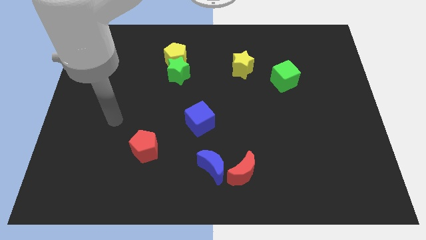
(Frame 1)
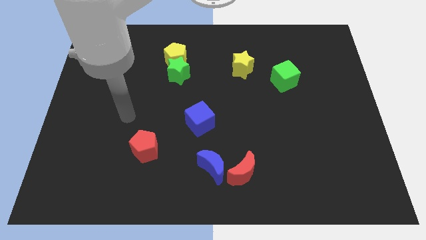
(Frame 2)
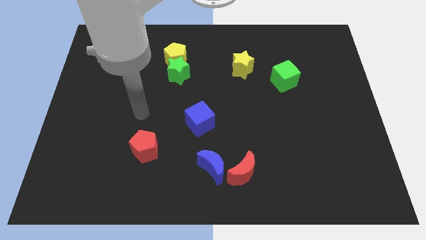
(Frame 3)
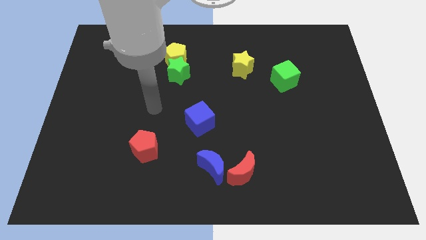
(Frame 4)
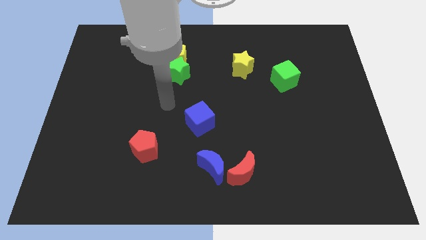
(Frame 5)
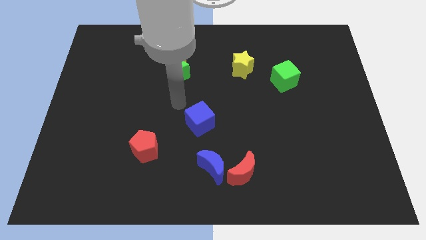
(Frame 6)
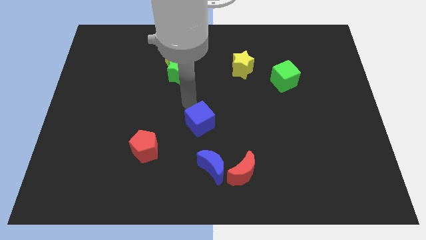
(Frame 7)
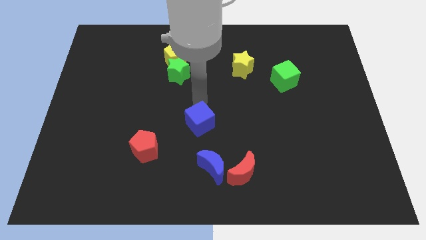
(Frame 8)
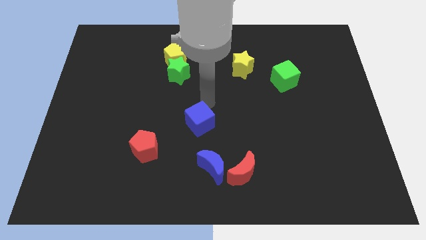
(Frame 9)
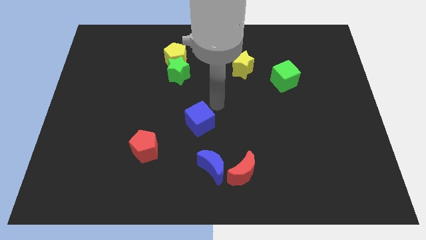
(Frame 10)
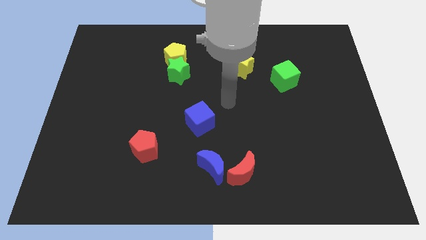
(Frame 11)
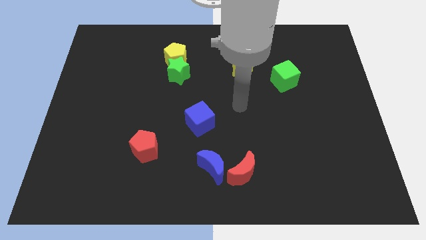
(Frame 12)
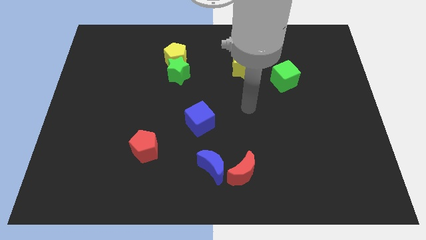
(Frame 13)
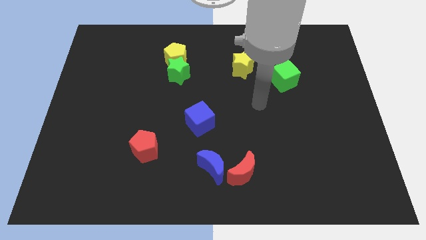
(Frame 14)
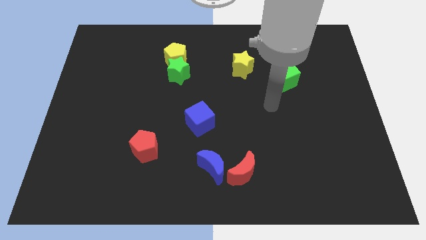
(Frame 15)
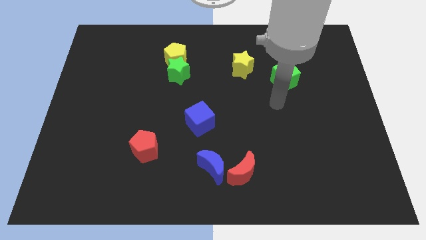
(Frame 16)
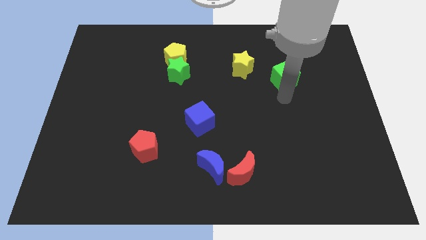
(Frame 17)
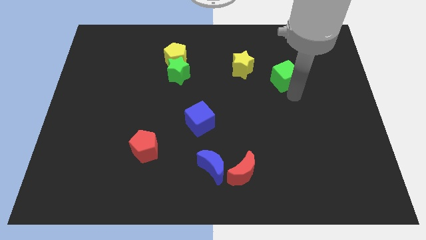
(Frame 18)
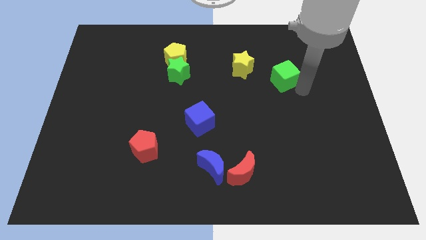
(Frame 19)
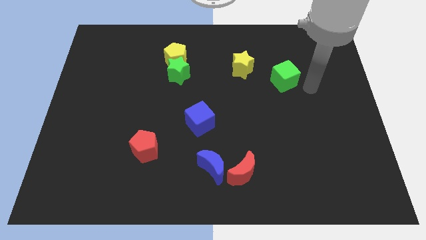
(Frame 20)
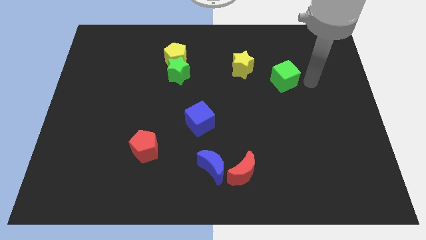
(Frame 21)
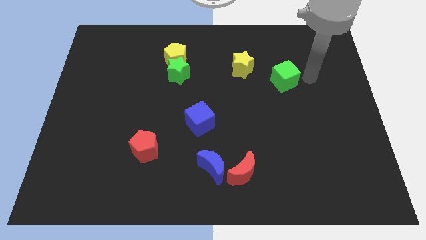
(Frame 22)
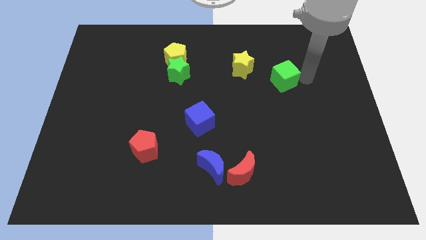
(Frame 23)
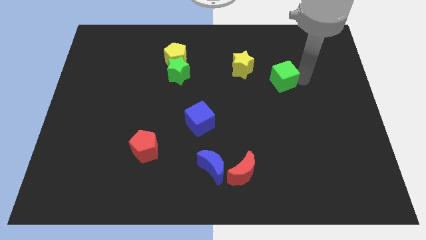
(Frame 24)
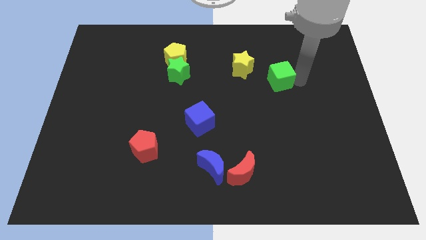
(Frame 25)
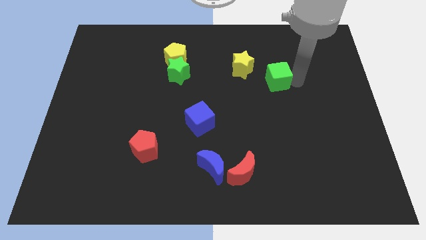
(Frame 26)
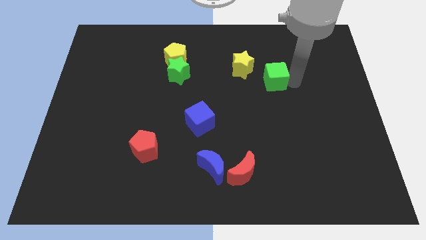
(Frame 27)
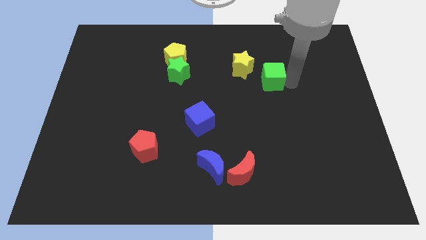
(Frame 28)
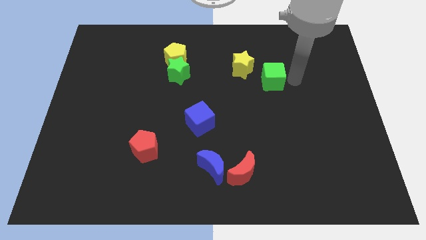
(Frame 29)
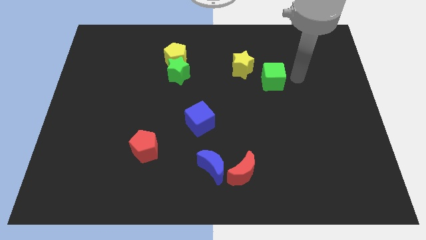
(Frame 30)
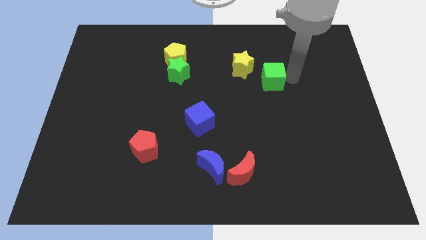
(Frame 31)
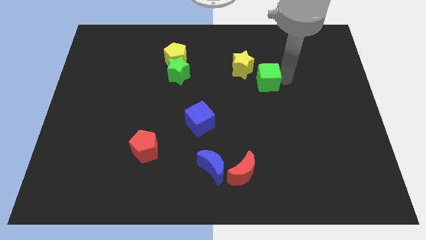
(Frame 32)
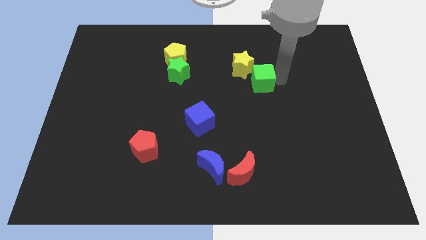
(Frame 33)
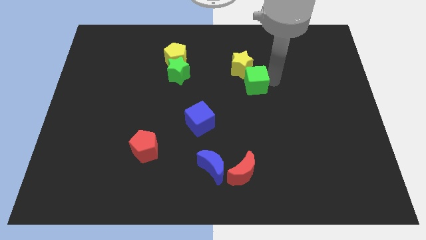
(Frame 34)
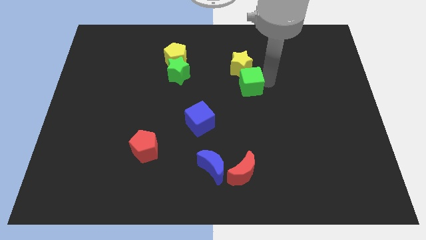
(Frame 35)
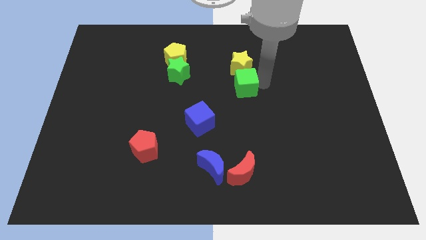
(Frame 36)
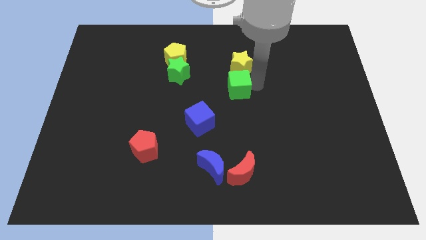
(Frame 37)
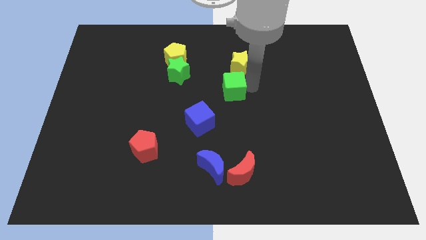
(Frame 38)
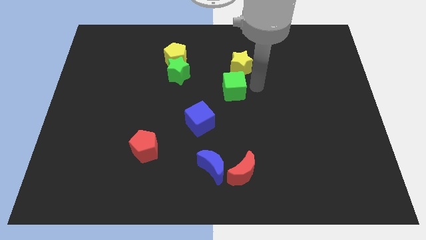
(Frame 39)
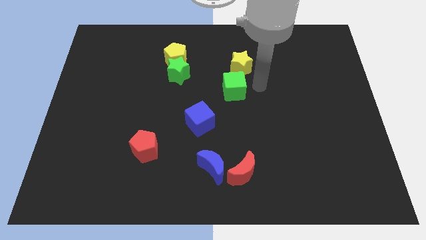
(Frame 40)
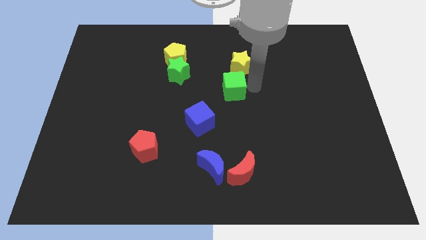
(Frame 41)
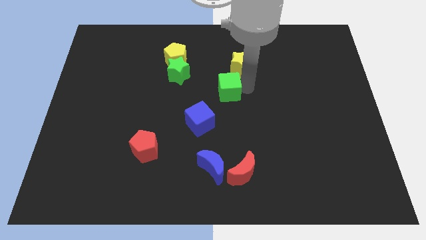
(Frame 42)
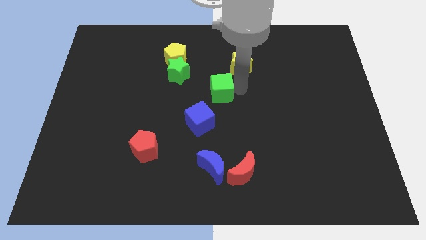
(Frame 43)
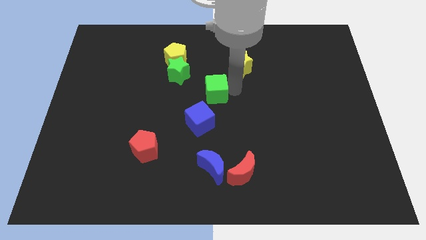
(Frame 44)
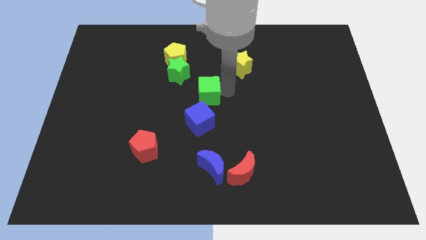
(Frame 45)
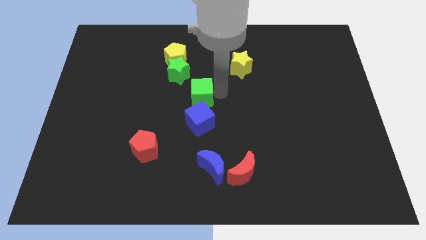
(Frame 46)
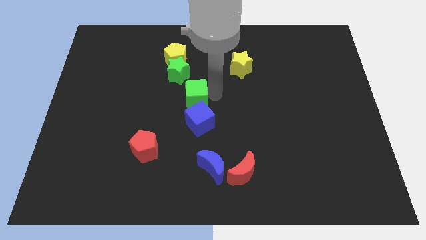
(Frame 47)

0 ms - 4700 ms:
move the green cube to the left

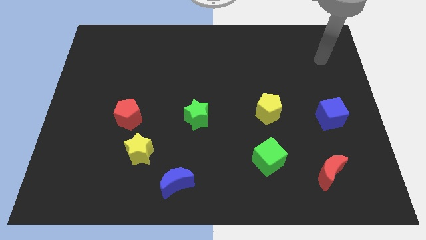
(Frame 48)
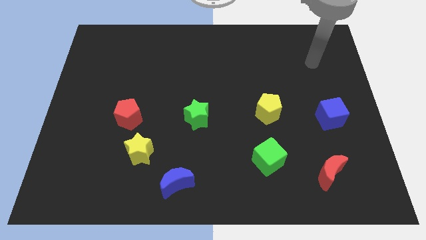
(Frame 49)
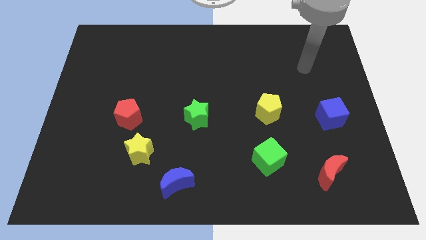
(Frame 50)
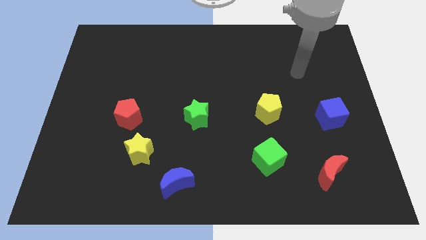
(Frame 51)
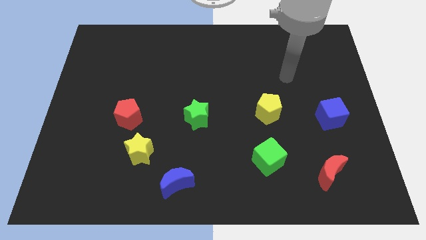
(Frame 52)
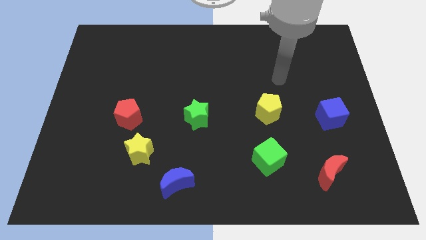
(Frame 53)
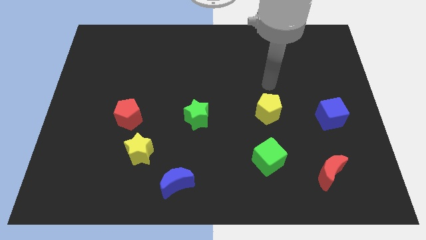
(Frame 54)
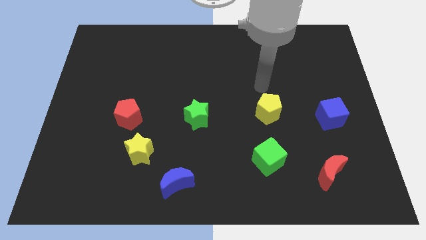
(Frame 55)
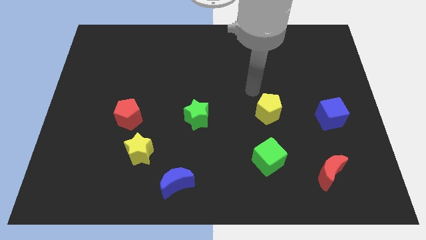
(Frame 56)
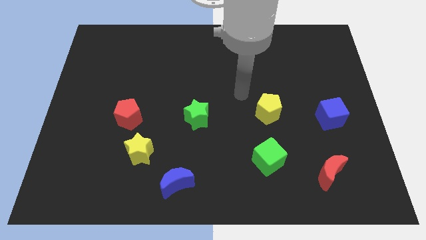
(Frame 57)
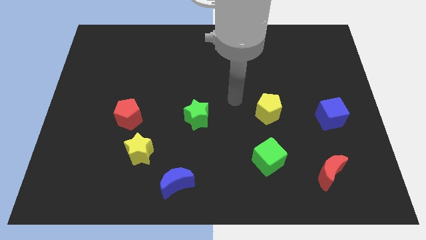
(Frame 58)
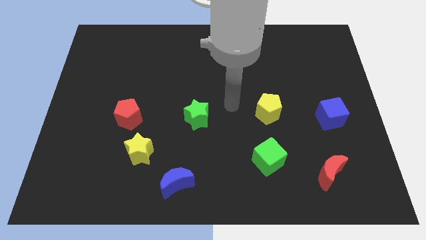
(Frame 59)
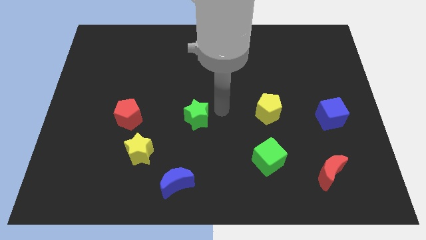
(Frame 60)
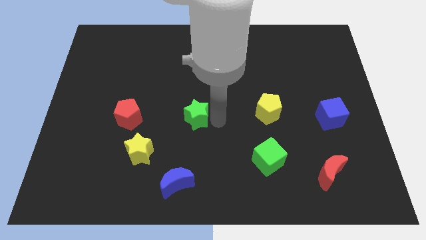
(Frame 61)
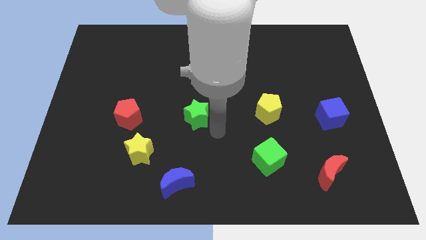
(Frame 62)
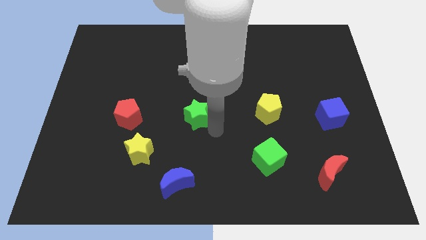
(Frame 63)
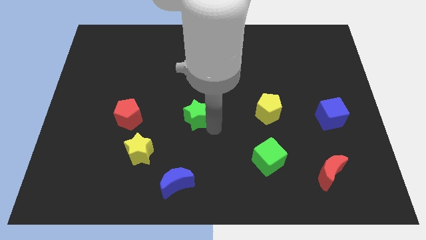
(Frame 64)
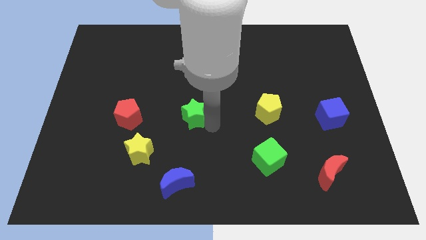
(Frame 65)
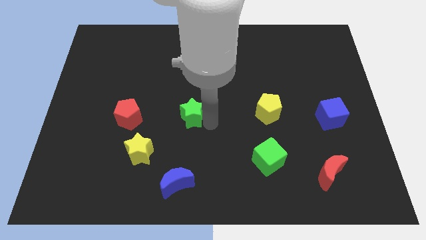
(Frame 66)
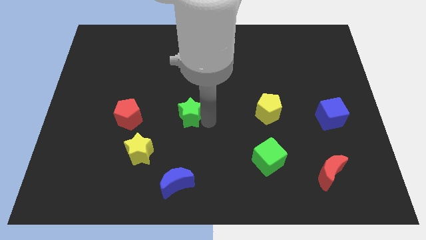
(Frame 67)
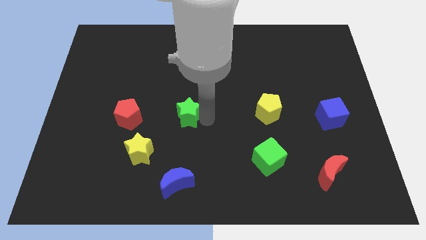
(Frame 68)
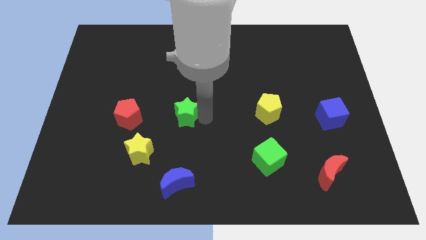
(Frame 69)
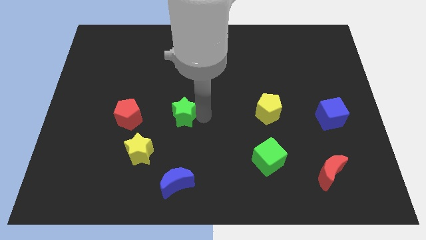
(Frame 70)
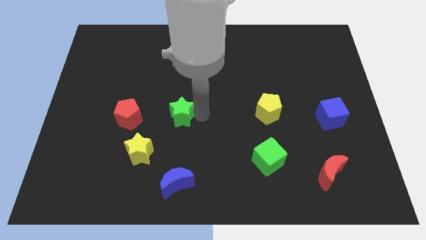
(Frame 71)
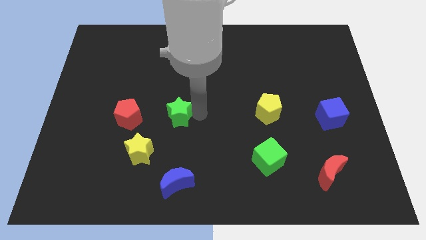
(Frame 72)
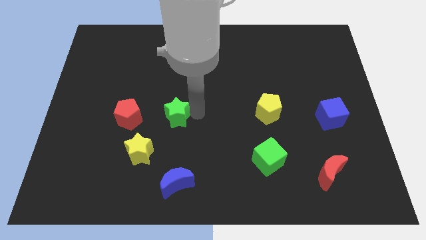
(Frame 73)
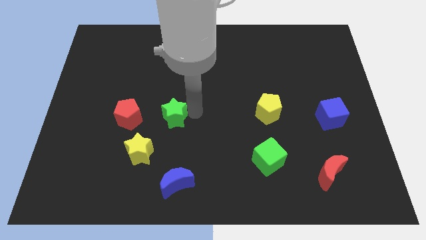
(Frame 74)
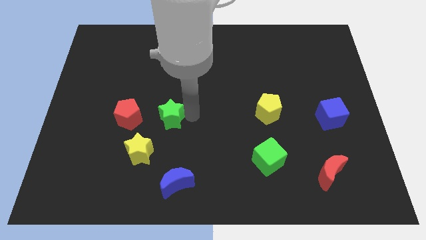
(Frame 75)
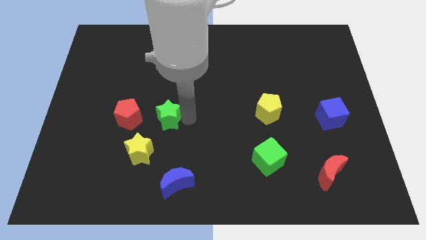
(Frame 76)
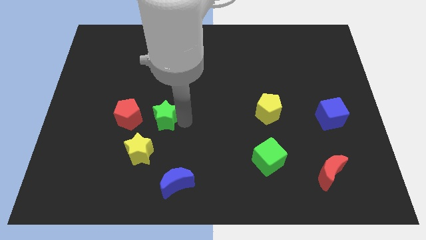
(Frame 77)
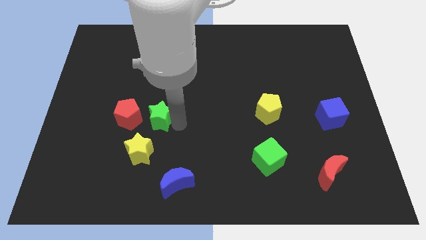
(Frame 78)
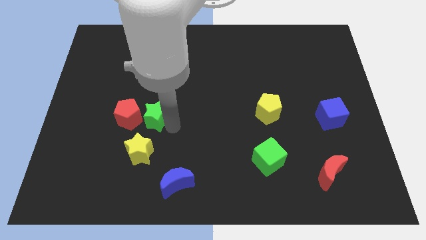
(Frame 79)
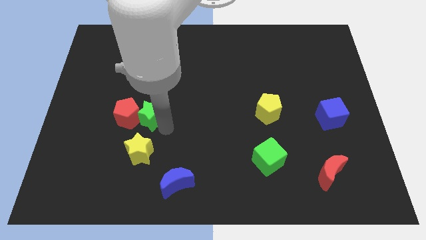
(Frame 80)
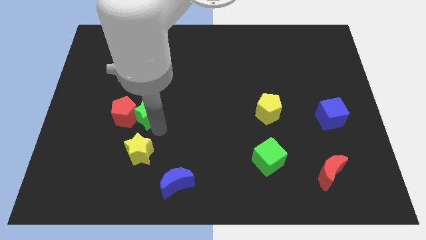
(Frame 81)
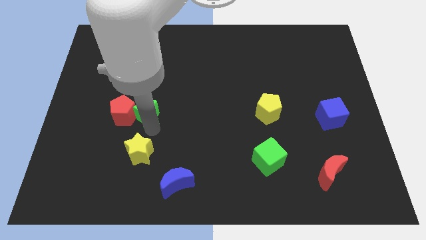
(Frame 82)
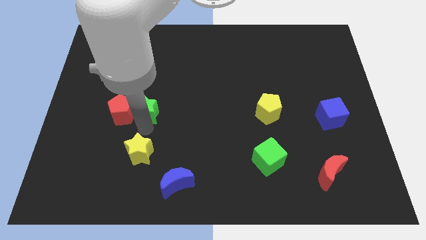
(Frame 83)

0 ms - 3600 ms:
slide the green star somewhat diagonally upwards and to the left
